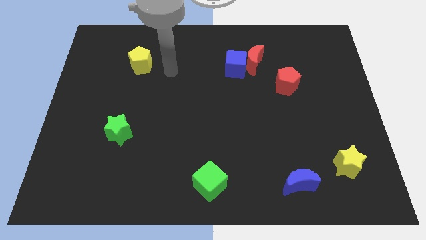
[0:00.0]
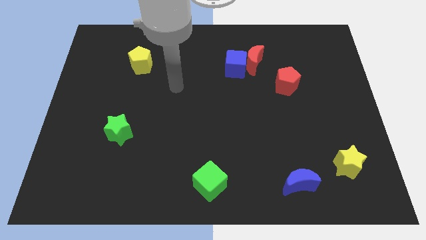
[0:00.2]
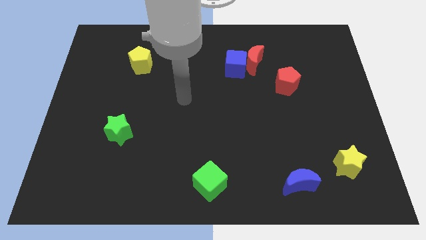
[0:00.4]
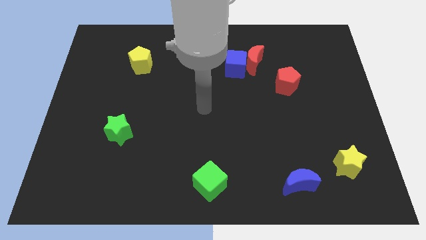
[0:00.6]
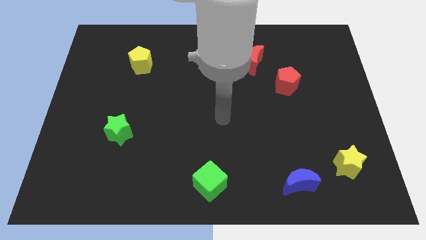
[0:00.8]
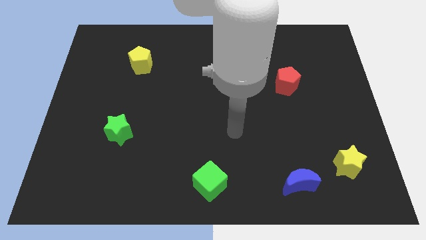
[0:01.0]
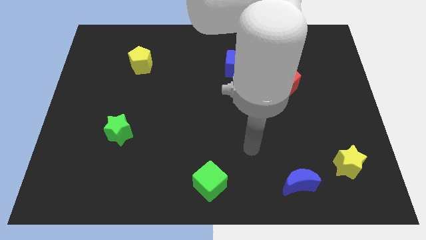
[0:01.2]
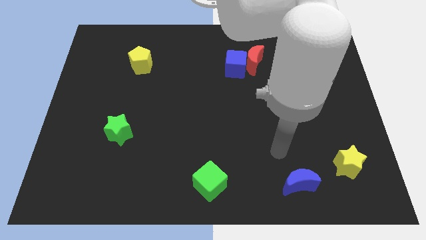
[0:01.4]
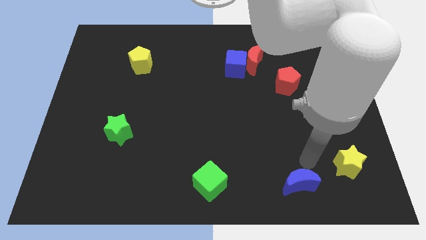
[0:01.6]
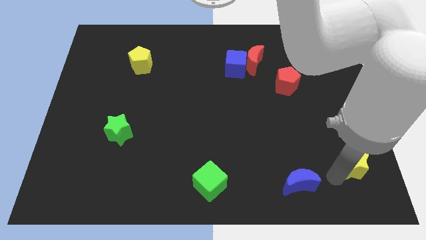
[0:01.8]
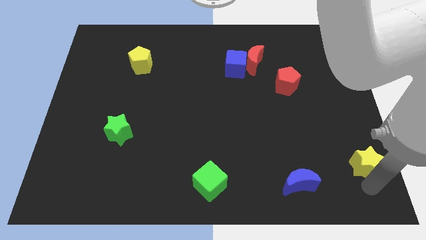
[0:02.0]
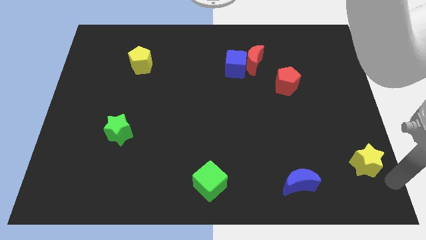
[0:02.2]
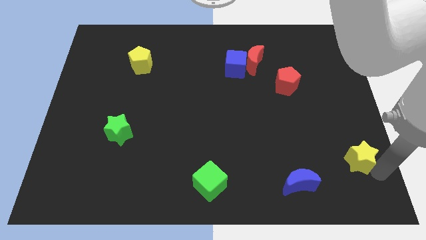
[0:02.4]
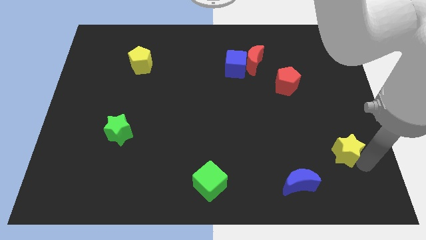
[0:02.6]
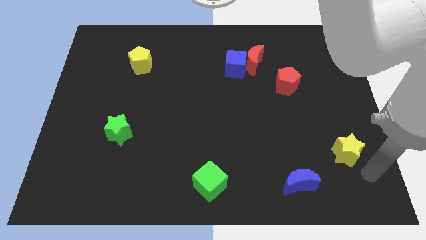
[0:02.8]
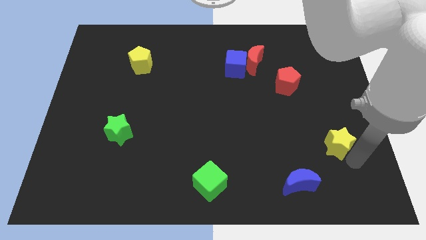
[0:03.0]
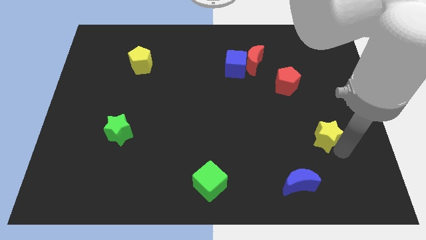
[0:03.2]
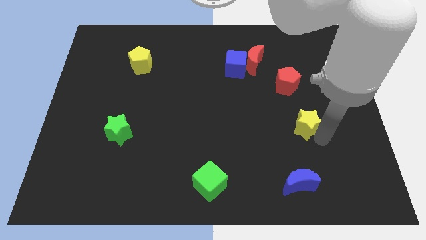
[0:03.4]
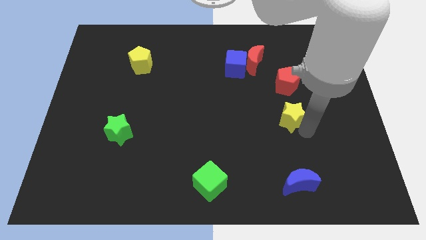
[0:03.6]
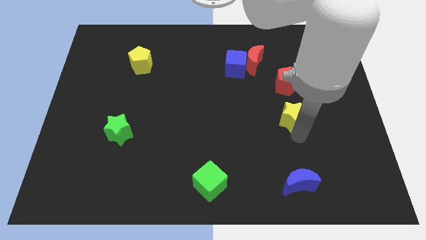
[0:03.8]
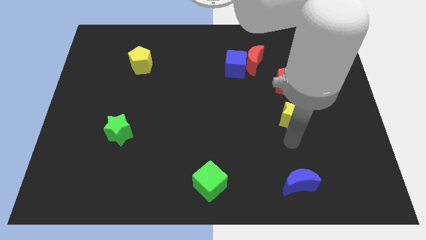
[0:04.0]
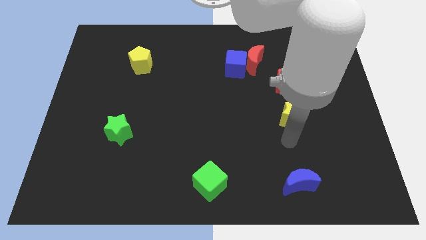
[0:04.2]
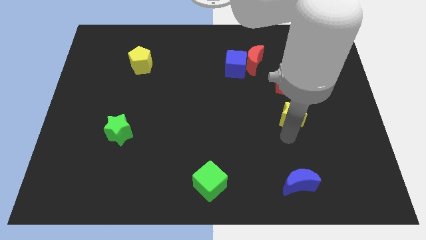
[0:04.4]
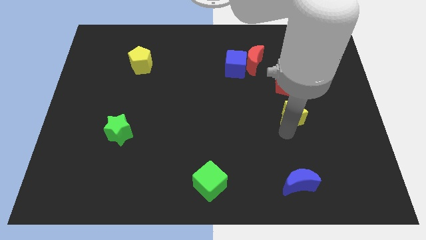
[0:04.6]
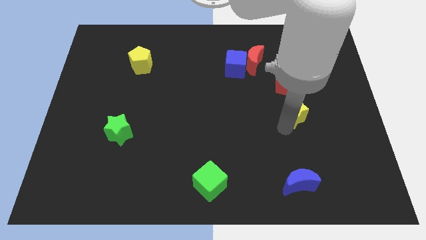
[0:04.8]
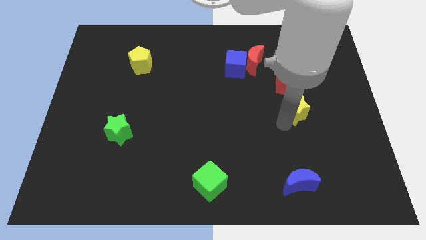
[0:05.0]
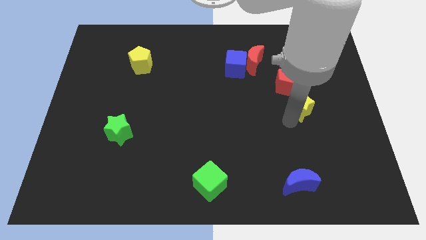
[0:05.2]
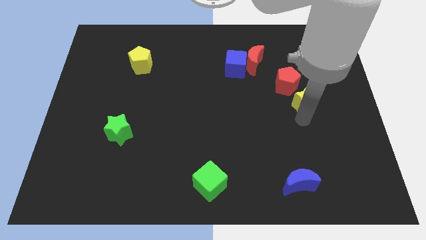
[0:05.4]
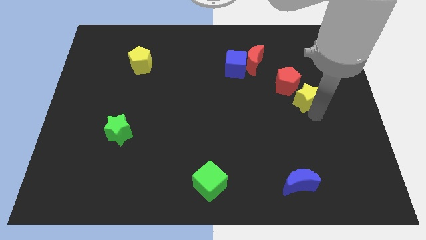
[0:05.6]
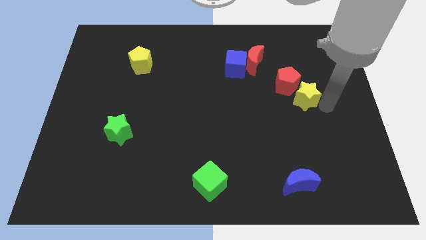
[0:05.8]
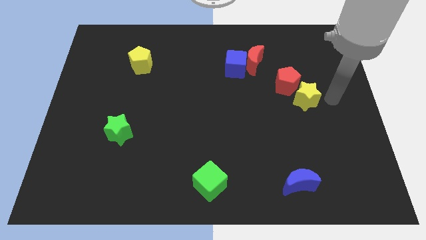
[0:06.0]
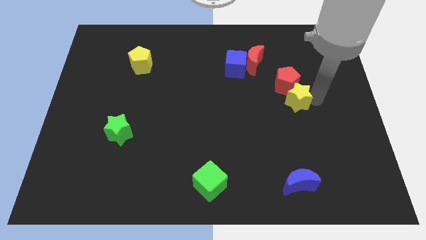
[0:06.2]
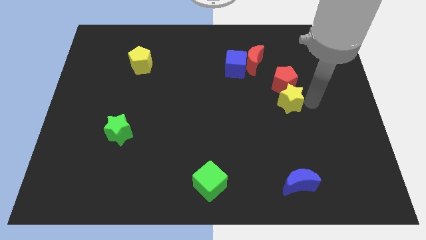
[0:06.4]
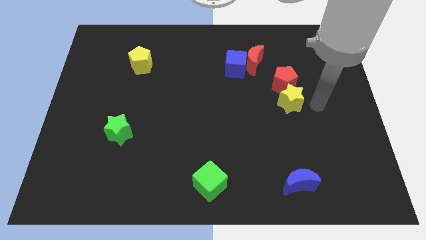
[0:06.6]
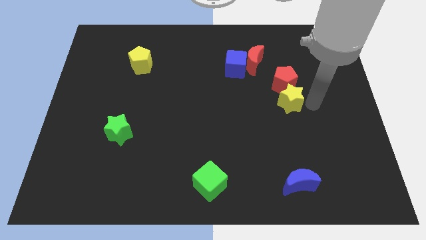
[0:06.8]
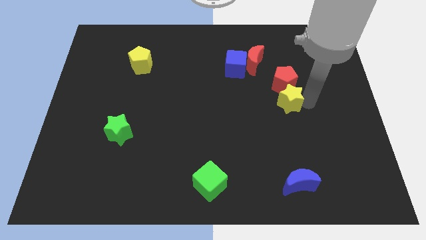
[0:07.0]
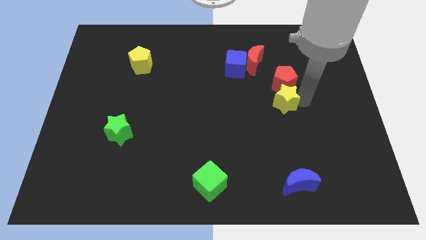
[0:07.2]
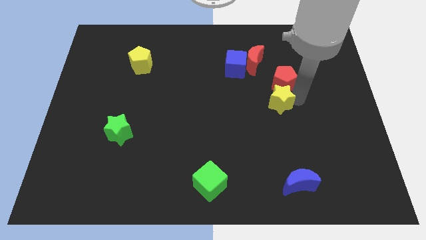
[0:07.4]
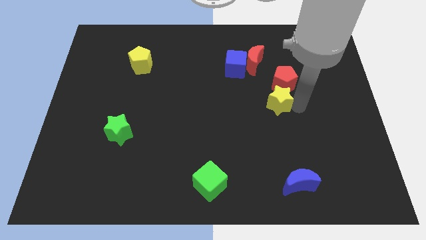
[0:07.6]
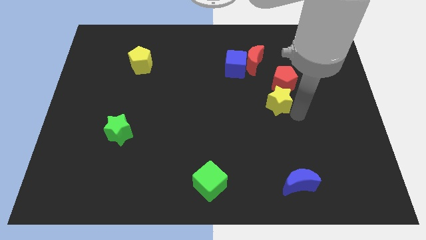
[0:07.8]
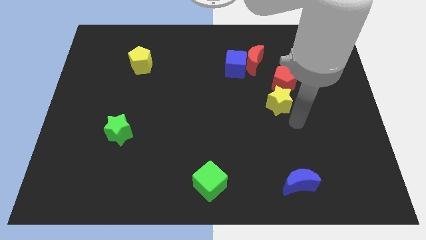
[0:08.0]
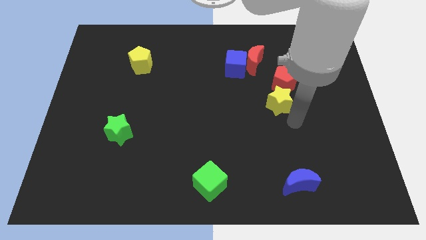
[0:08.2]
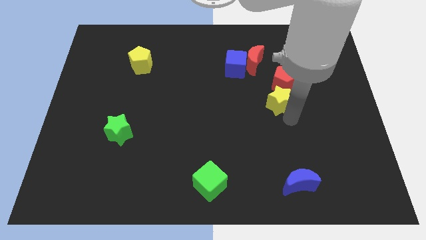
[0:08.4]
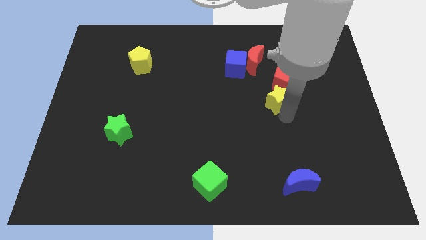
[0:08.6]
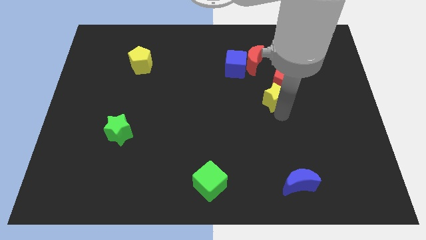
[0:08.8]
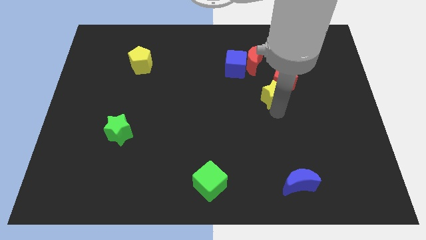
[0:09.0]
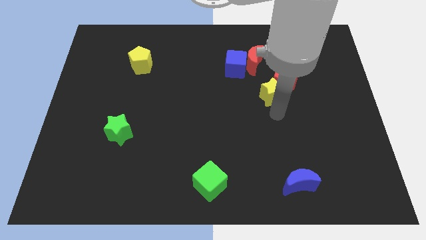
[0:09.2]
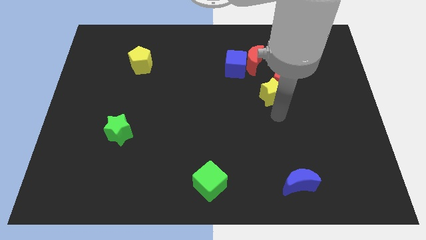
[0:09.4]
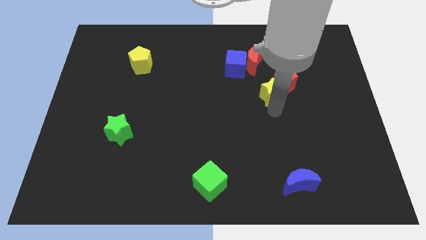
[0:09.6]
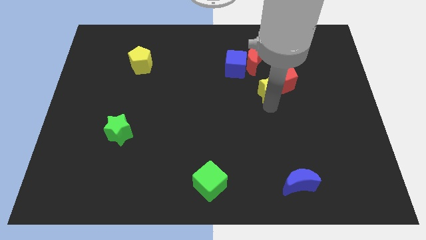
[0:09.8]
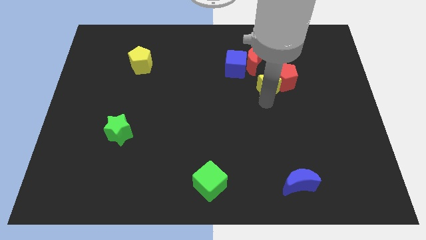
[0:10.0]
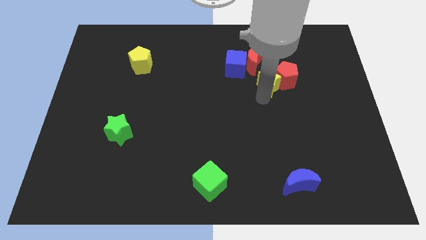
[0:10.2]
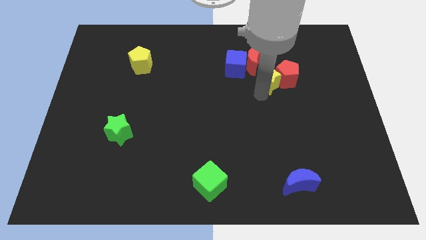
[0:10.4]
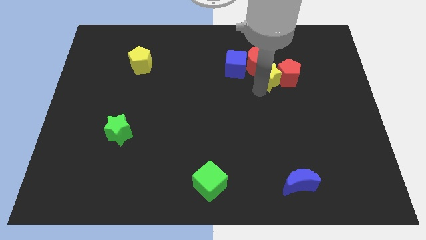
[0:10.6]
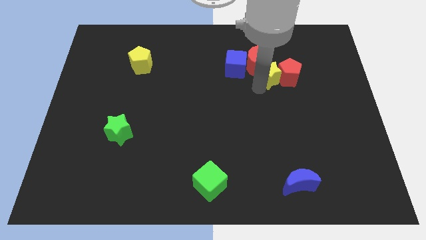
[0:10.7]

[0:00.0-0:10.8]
push the yellow star towards the red moon

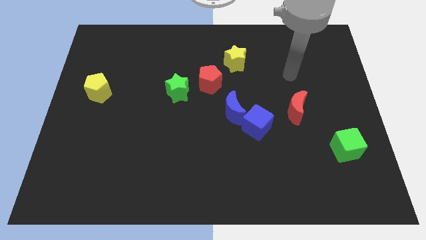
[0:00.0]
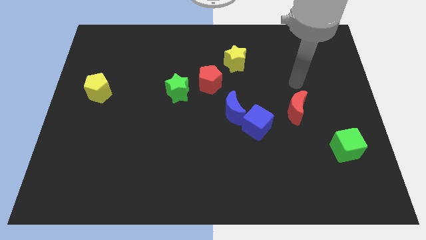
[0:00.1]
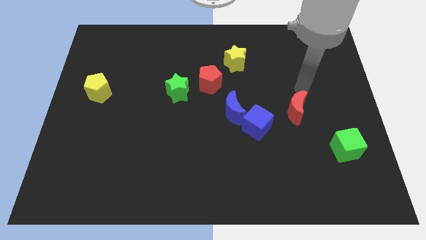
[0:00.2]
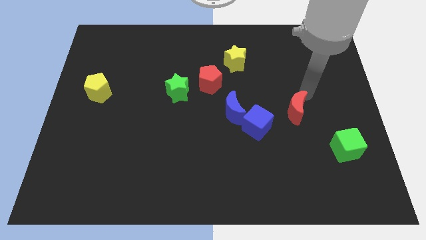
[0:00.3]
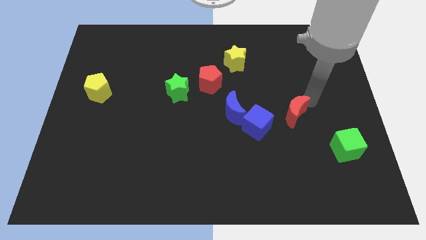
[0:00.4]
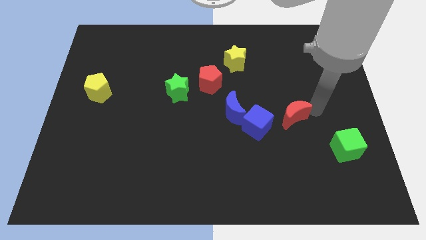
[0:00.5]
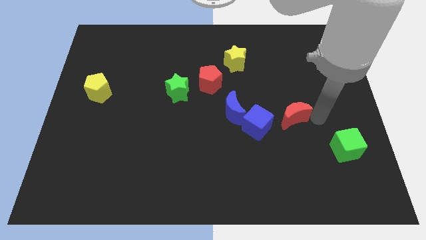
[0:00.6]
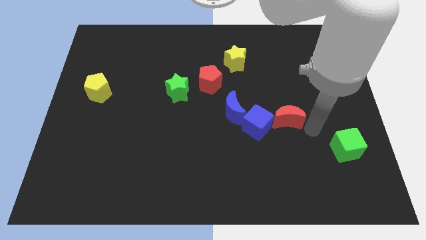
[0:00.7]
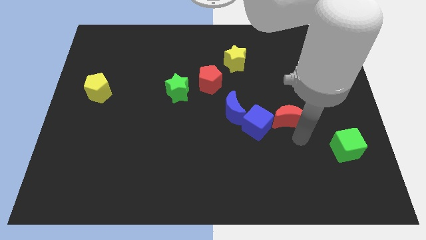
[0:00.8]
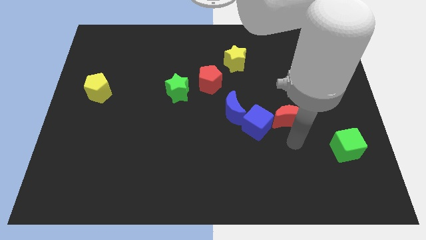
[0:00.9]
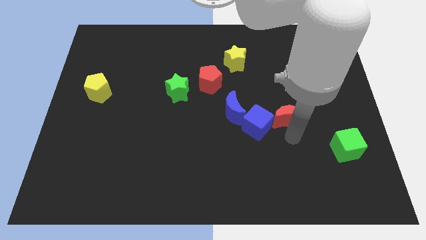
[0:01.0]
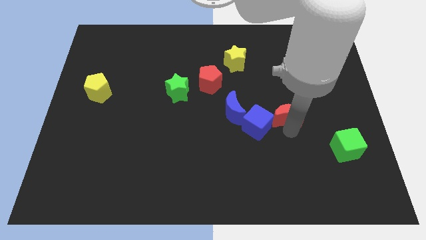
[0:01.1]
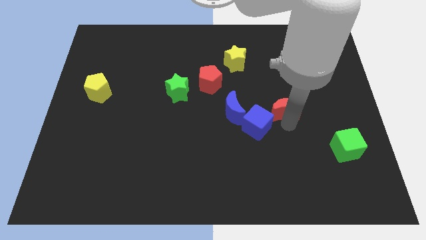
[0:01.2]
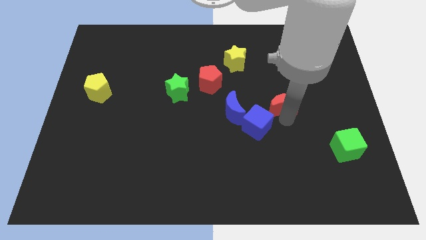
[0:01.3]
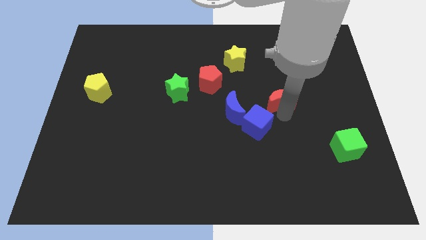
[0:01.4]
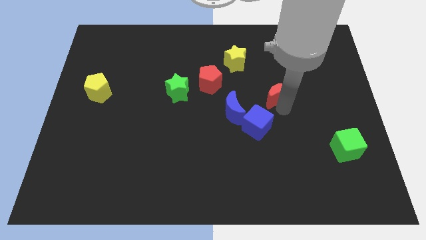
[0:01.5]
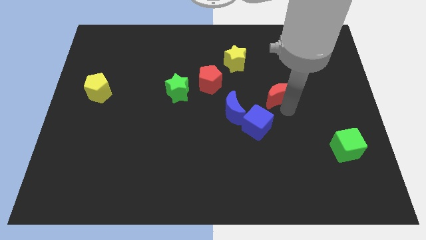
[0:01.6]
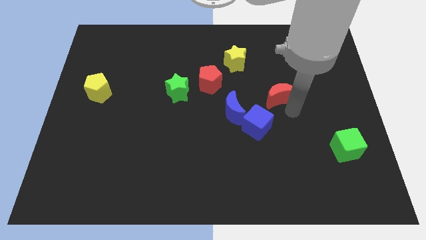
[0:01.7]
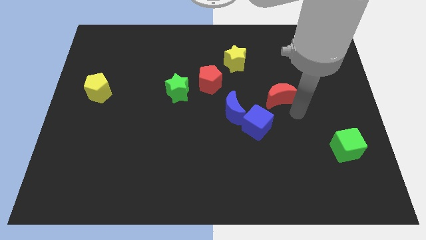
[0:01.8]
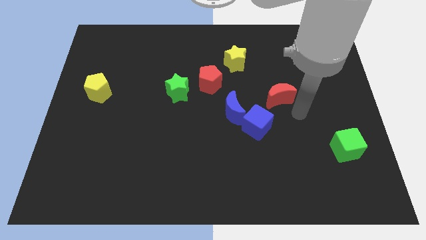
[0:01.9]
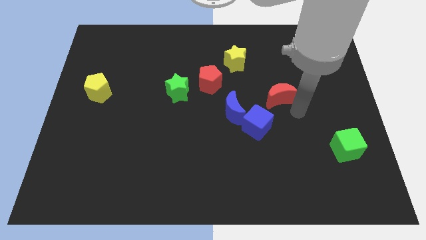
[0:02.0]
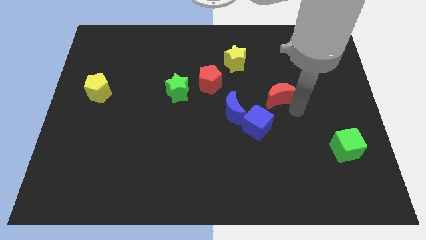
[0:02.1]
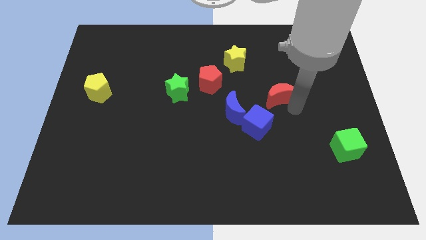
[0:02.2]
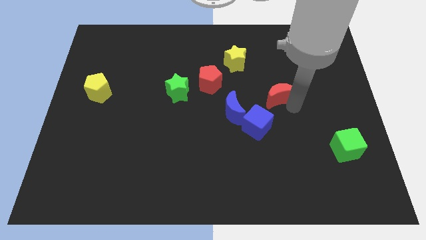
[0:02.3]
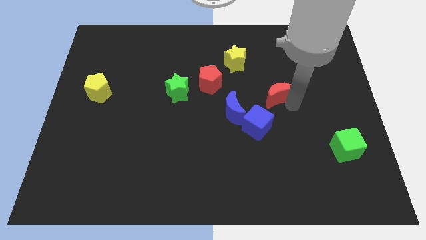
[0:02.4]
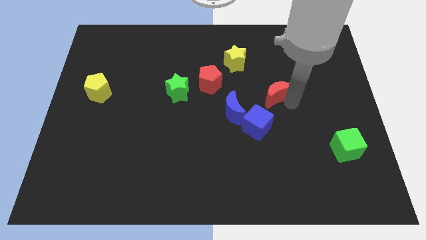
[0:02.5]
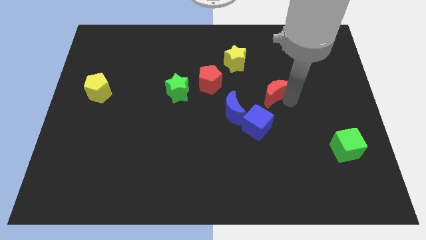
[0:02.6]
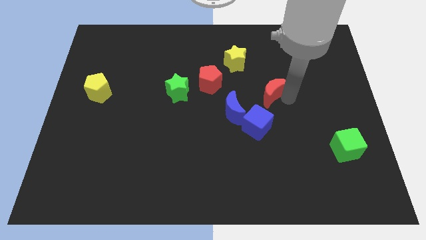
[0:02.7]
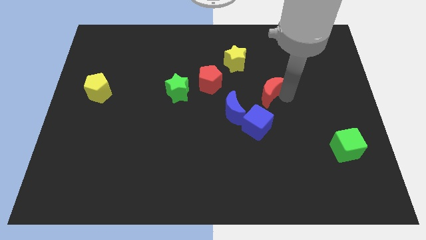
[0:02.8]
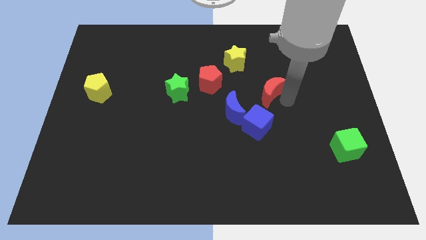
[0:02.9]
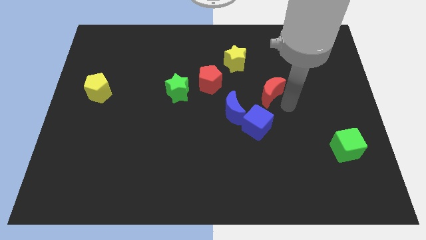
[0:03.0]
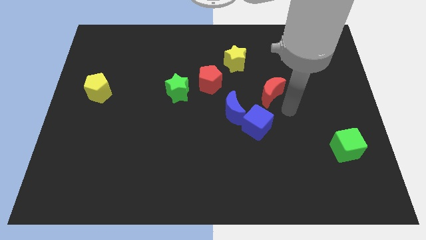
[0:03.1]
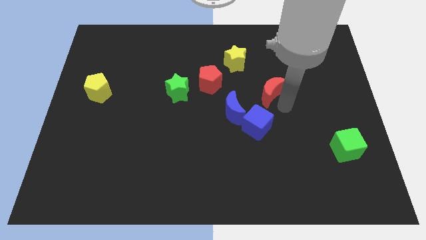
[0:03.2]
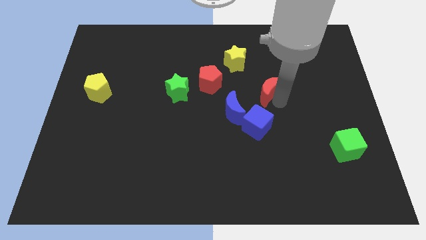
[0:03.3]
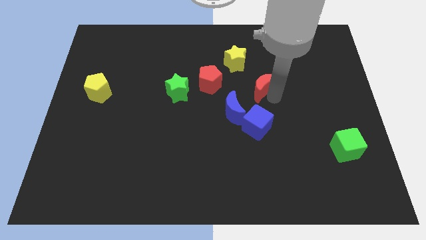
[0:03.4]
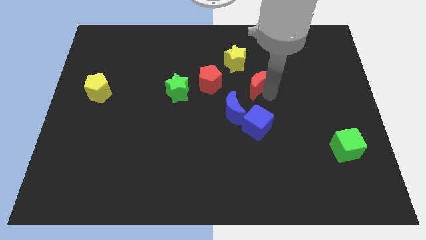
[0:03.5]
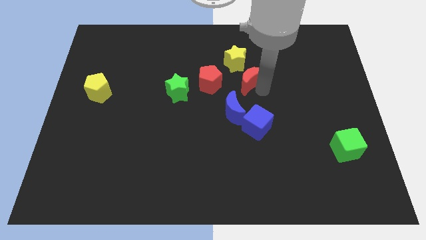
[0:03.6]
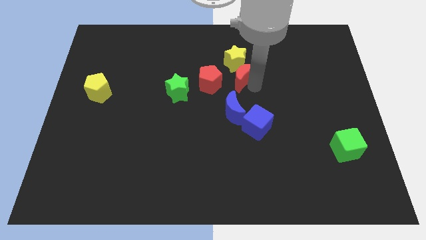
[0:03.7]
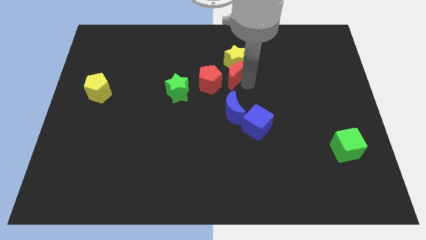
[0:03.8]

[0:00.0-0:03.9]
put the red moon towards the yellow star
